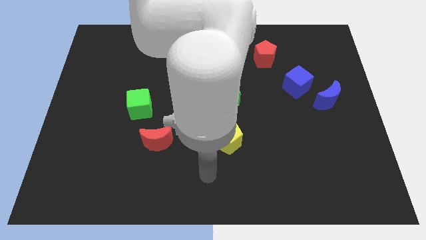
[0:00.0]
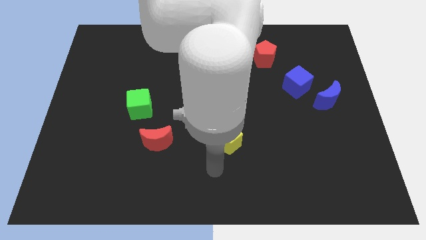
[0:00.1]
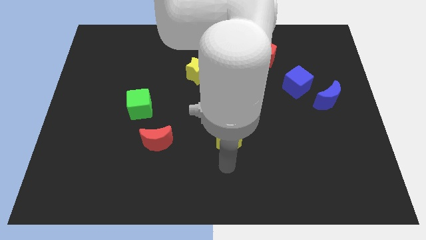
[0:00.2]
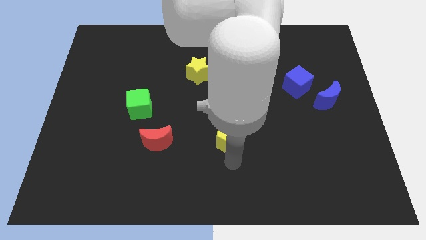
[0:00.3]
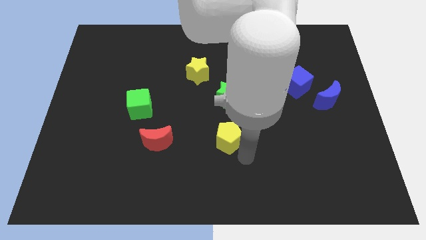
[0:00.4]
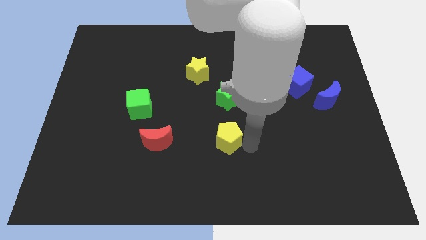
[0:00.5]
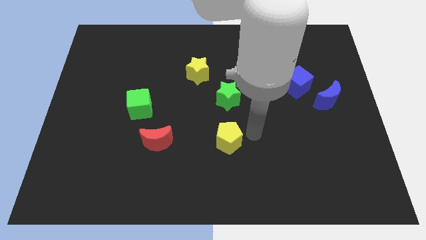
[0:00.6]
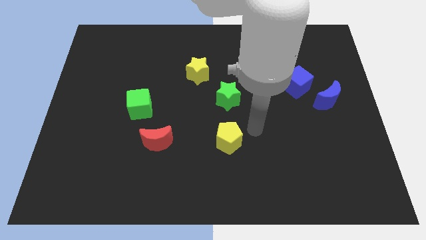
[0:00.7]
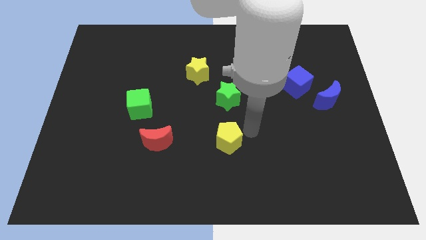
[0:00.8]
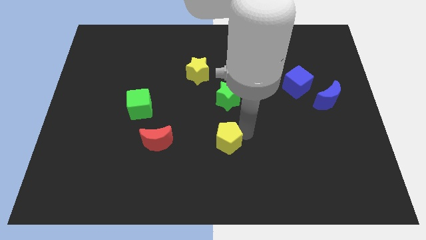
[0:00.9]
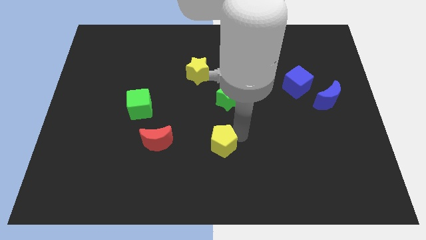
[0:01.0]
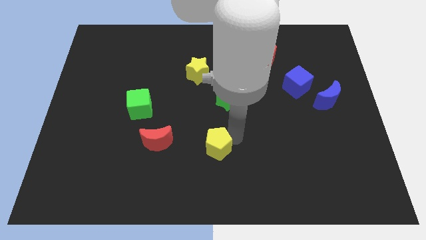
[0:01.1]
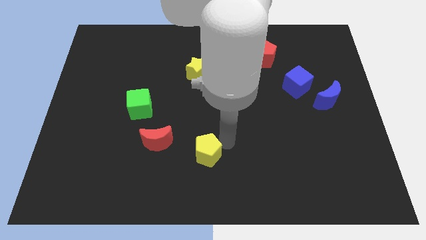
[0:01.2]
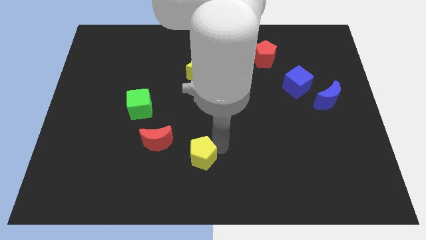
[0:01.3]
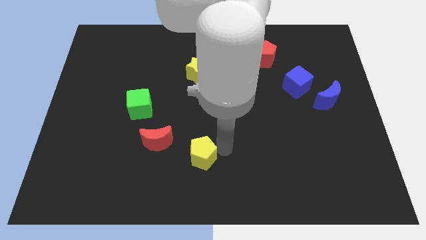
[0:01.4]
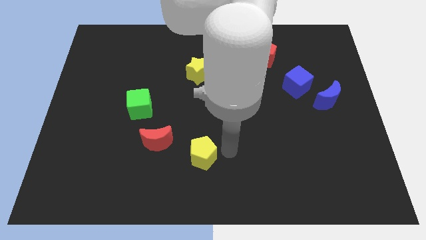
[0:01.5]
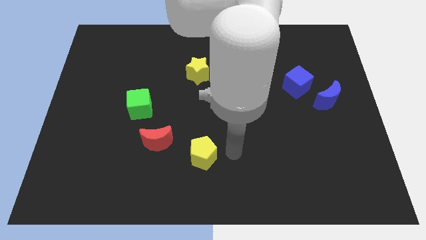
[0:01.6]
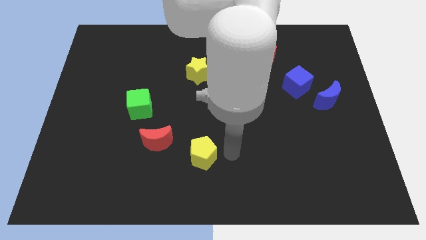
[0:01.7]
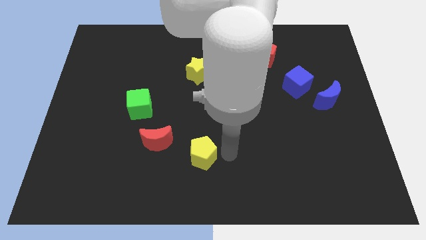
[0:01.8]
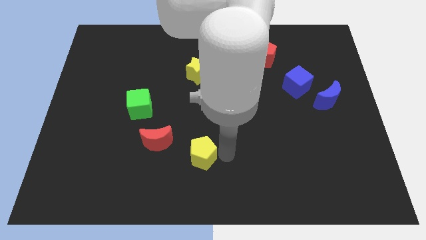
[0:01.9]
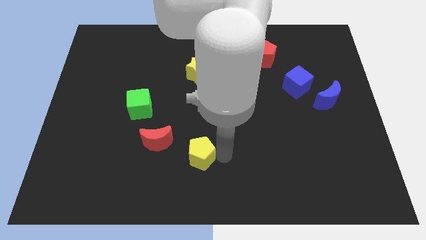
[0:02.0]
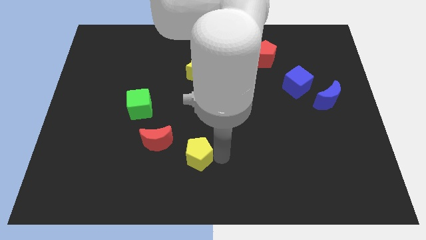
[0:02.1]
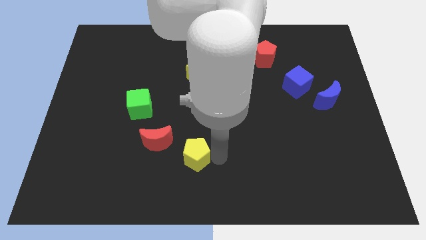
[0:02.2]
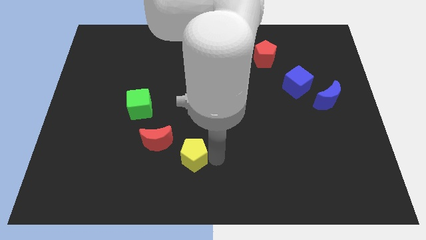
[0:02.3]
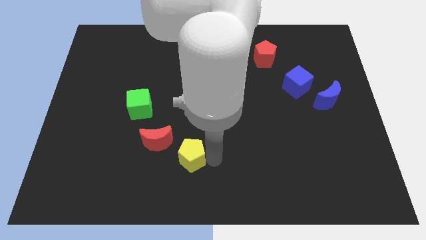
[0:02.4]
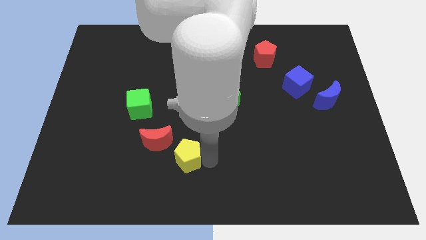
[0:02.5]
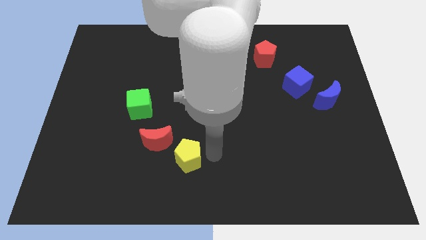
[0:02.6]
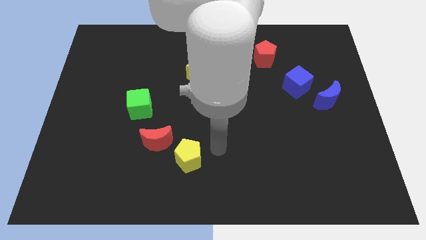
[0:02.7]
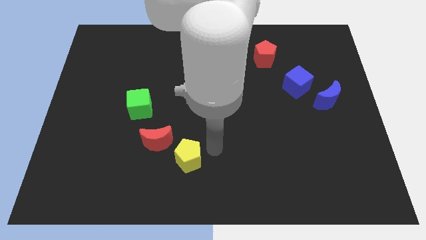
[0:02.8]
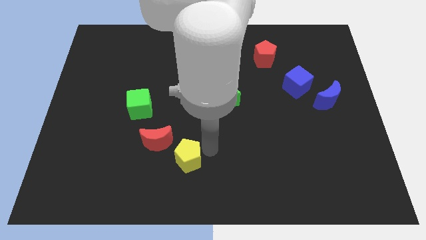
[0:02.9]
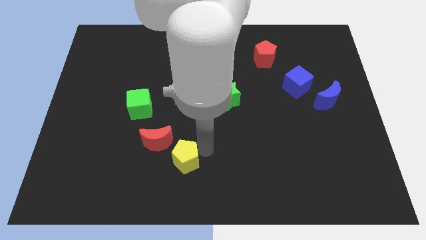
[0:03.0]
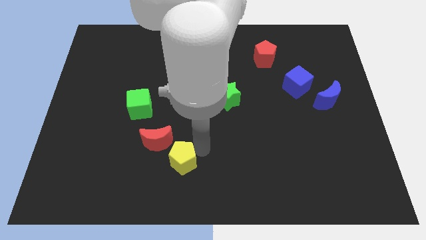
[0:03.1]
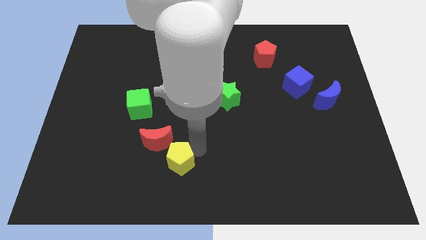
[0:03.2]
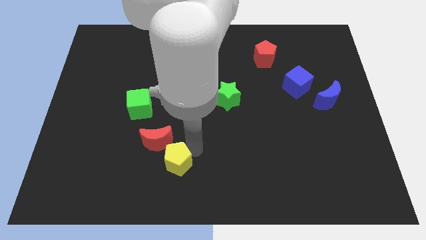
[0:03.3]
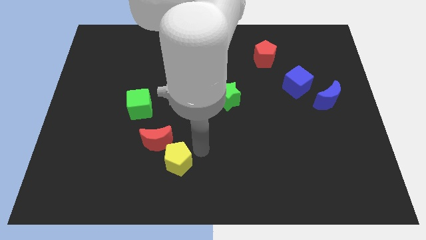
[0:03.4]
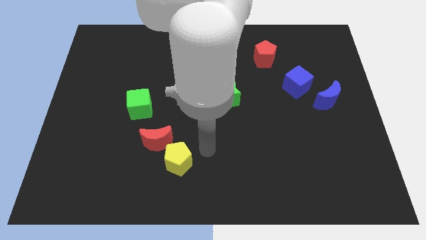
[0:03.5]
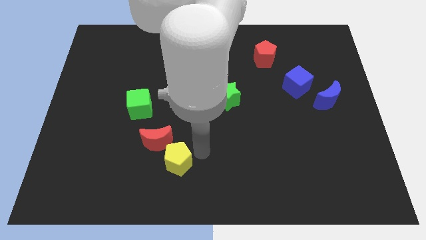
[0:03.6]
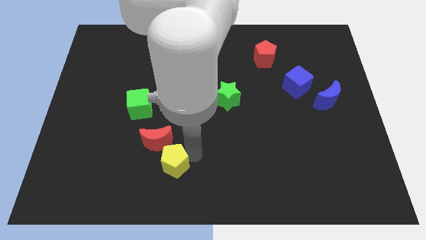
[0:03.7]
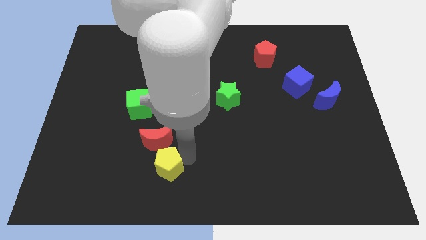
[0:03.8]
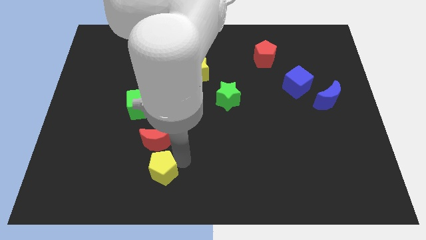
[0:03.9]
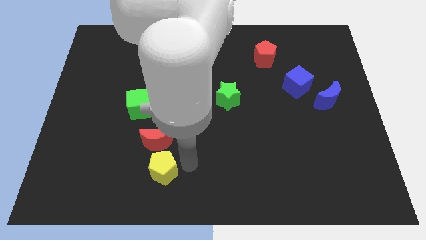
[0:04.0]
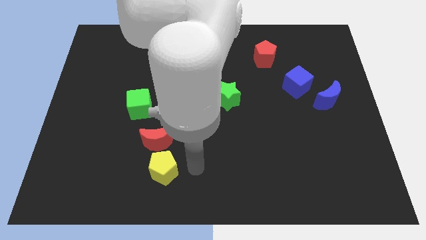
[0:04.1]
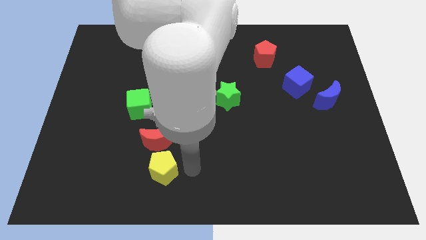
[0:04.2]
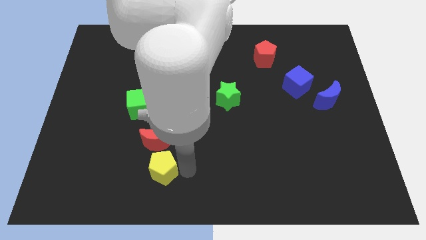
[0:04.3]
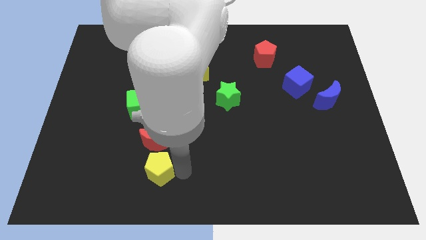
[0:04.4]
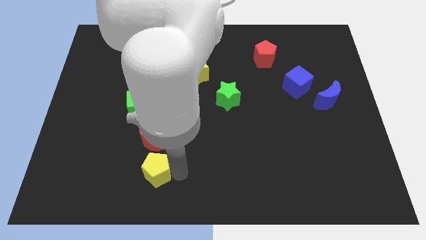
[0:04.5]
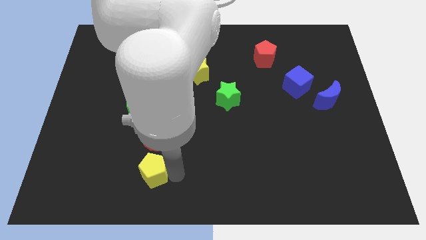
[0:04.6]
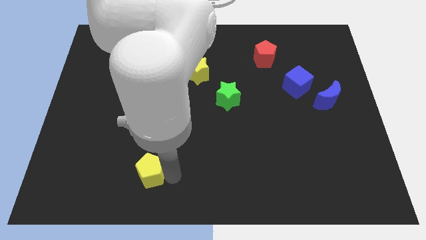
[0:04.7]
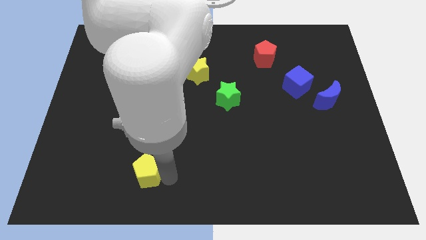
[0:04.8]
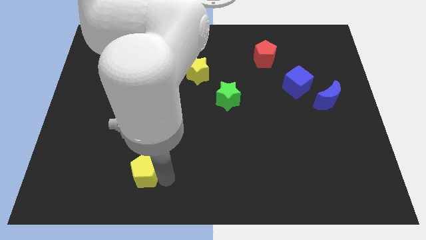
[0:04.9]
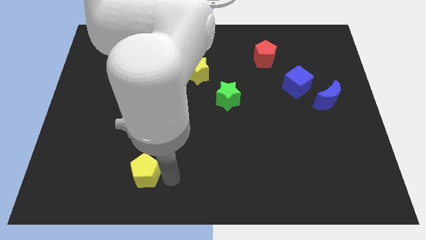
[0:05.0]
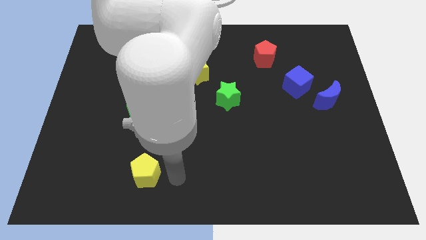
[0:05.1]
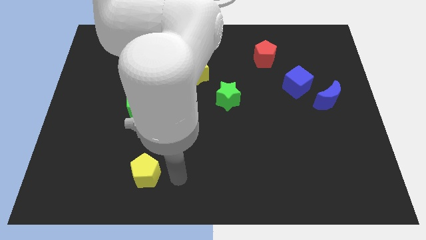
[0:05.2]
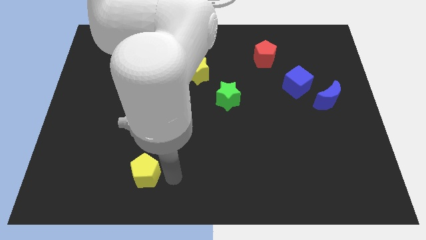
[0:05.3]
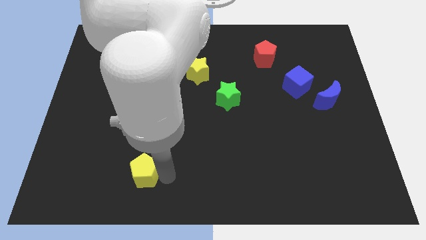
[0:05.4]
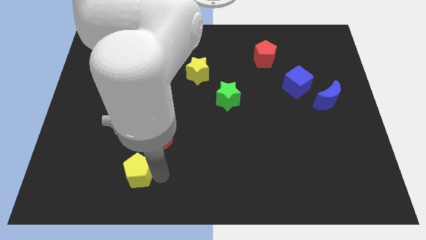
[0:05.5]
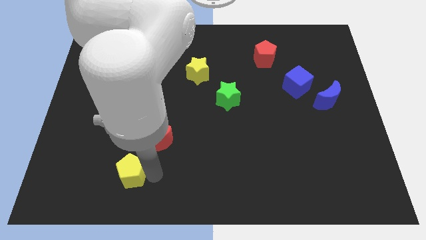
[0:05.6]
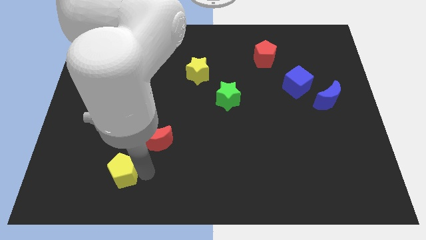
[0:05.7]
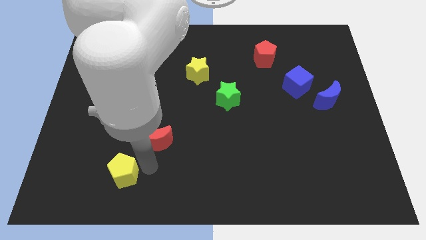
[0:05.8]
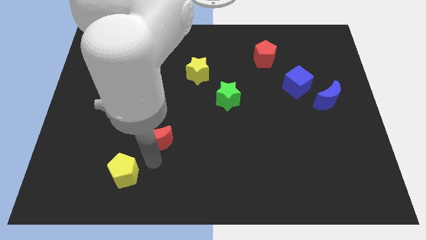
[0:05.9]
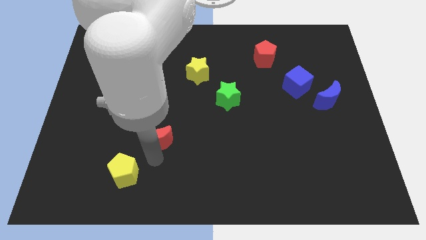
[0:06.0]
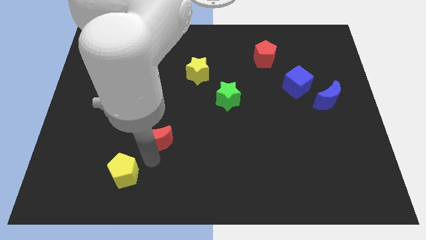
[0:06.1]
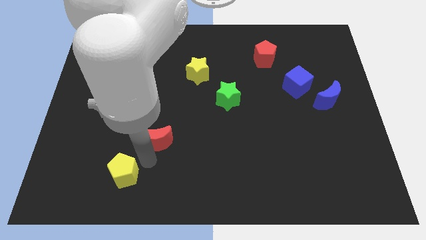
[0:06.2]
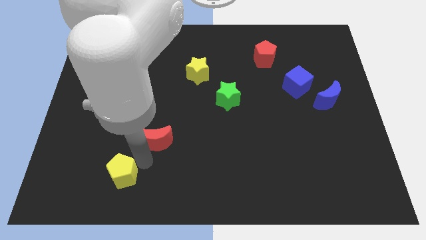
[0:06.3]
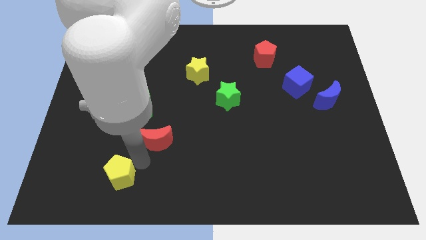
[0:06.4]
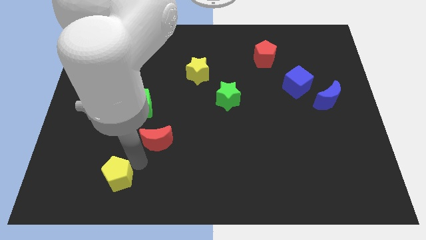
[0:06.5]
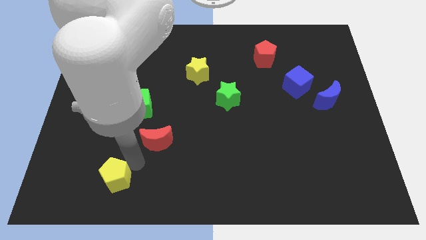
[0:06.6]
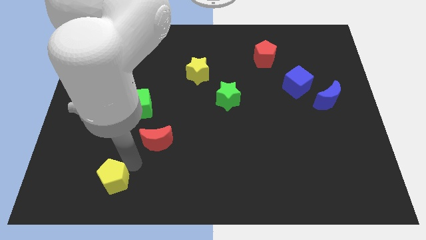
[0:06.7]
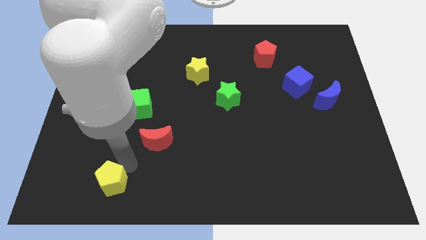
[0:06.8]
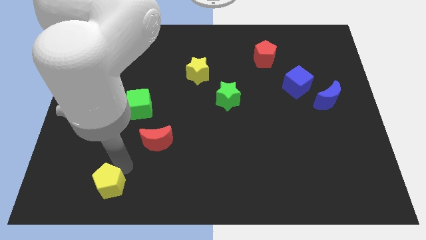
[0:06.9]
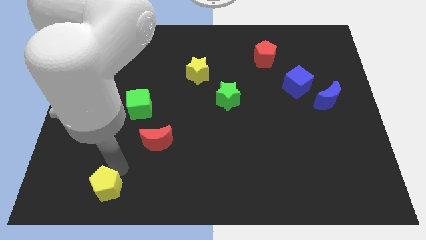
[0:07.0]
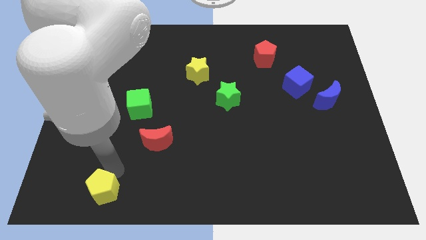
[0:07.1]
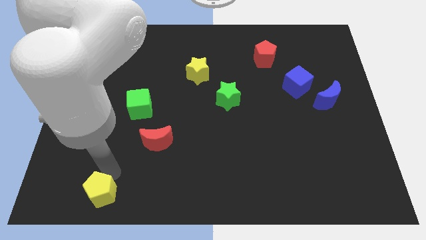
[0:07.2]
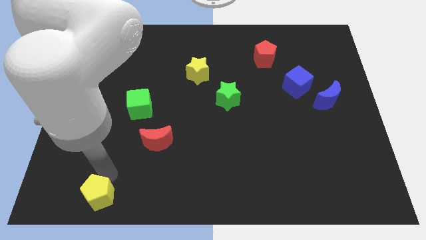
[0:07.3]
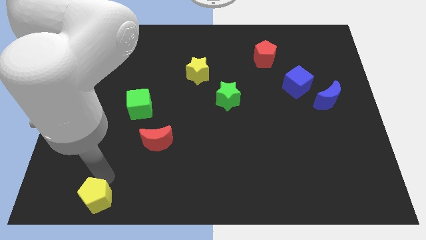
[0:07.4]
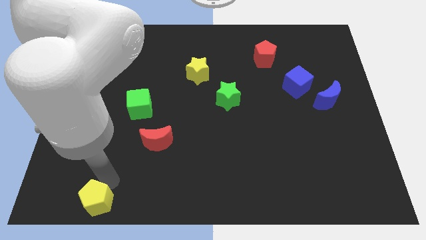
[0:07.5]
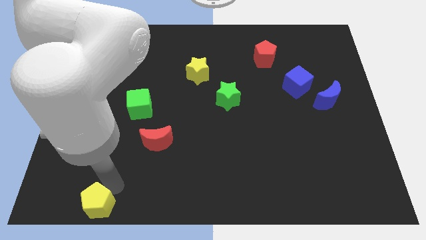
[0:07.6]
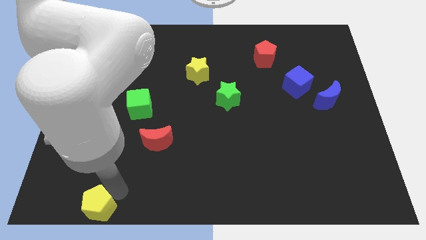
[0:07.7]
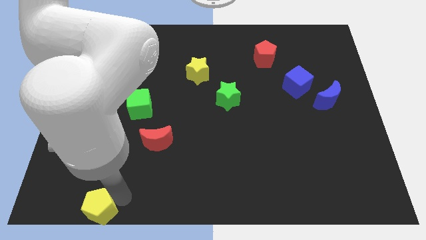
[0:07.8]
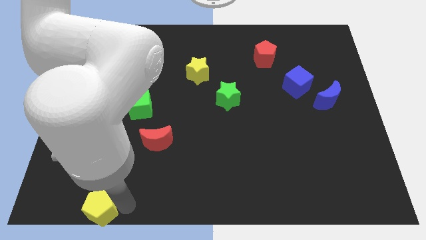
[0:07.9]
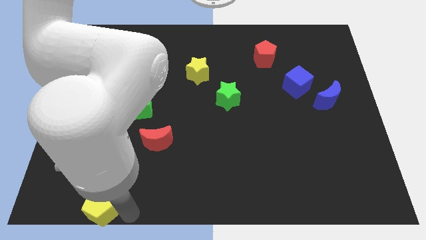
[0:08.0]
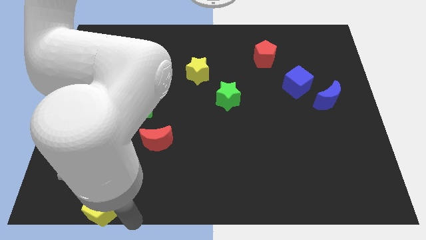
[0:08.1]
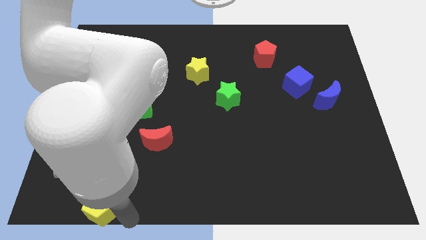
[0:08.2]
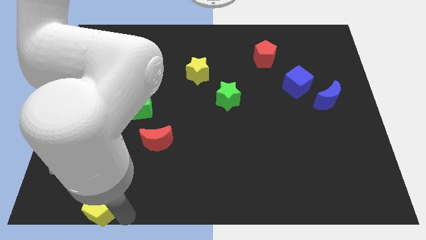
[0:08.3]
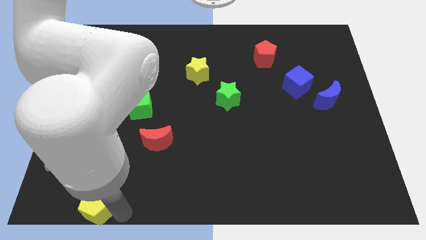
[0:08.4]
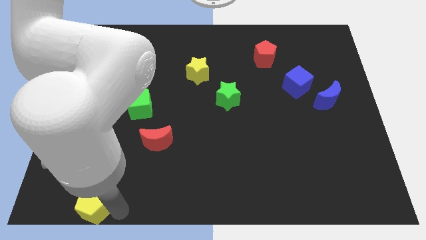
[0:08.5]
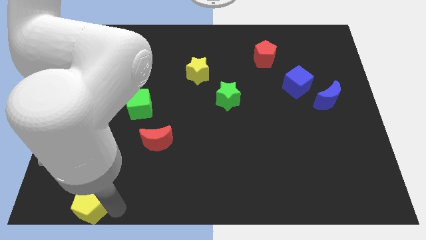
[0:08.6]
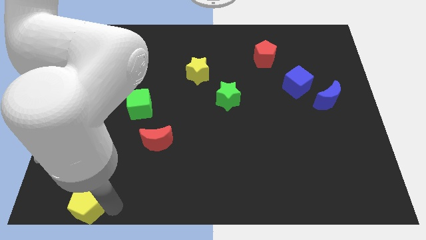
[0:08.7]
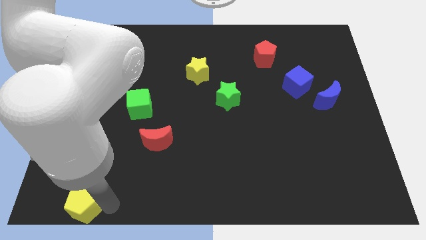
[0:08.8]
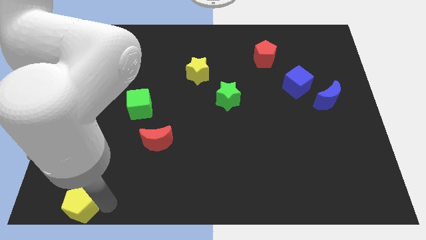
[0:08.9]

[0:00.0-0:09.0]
push the yellow pentagon to the bottom left corner
